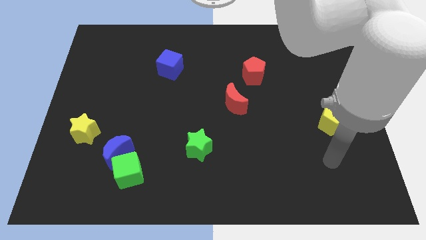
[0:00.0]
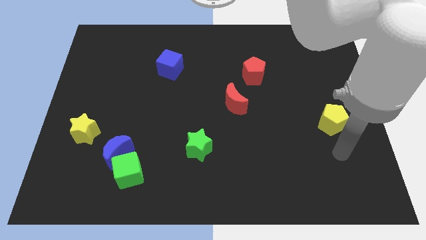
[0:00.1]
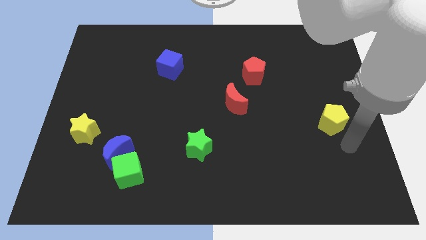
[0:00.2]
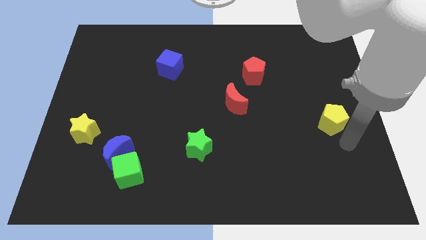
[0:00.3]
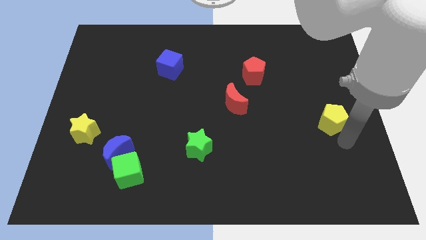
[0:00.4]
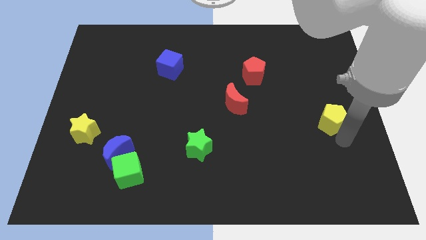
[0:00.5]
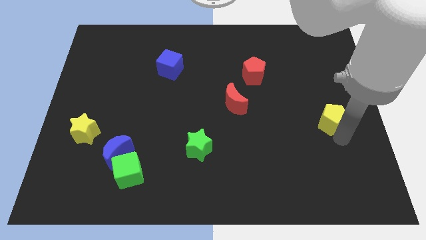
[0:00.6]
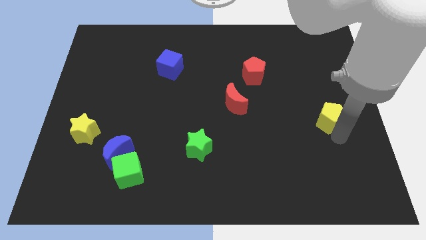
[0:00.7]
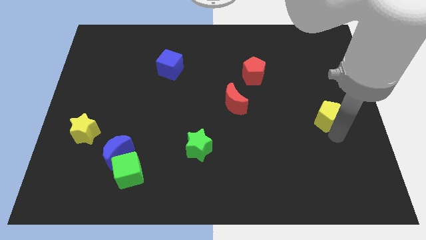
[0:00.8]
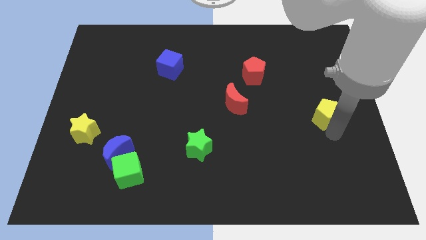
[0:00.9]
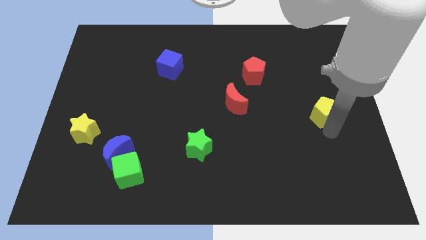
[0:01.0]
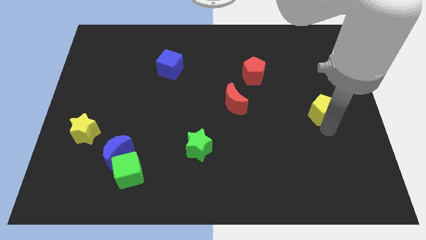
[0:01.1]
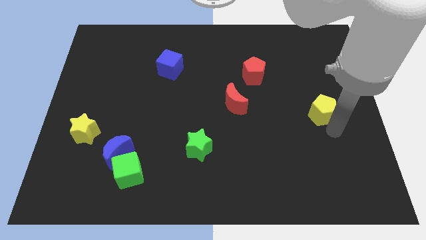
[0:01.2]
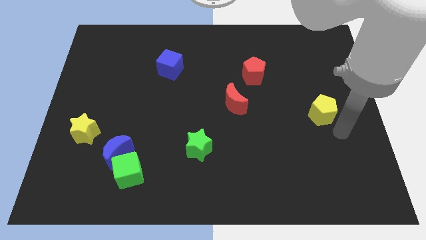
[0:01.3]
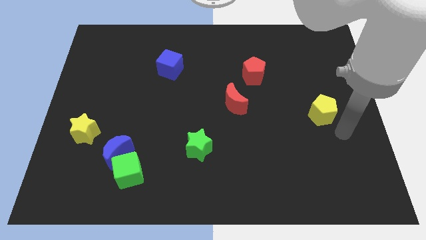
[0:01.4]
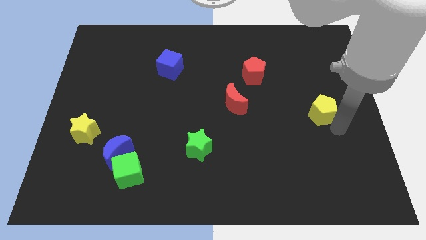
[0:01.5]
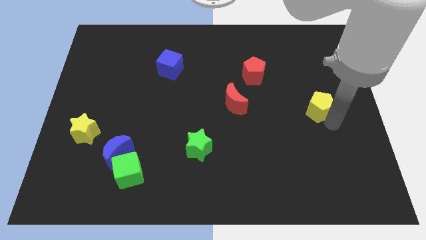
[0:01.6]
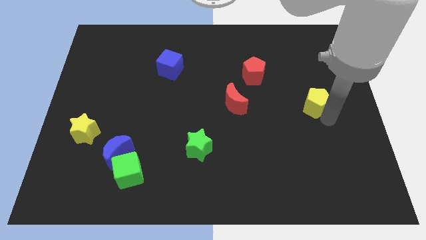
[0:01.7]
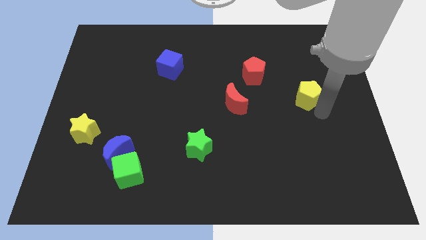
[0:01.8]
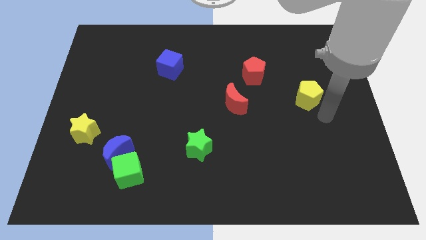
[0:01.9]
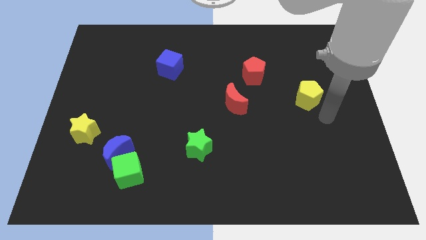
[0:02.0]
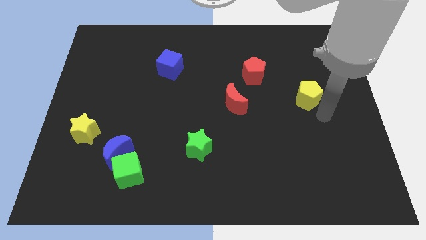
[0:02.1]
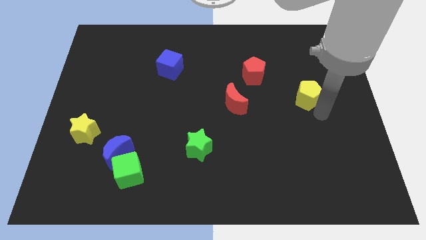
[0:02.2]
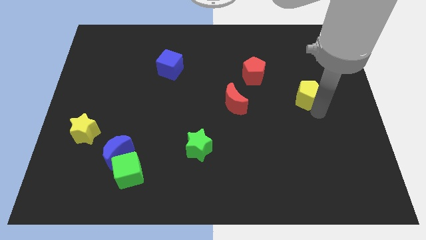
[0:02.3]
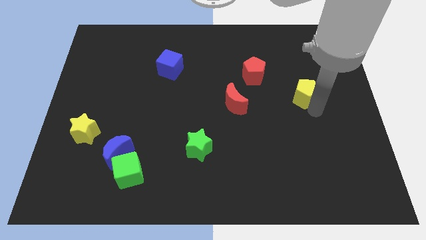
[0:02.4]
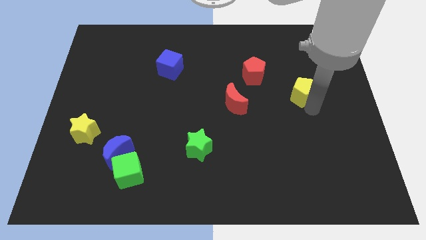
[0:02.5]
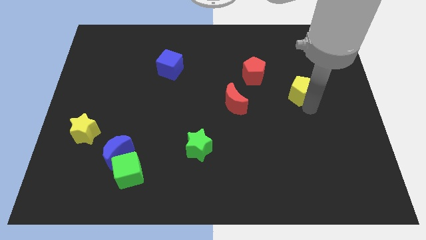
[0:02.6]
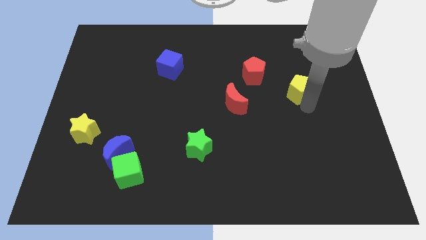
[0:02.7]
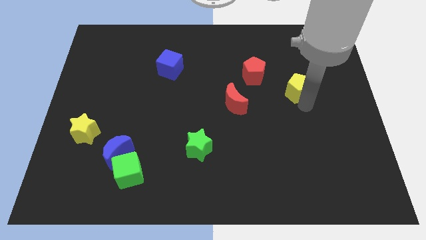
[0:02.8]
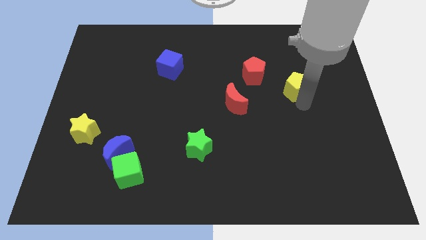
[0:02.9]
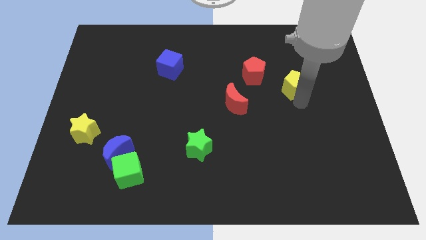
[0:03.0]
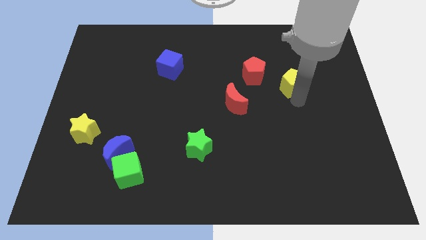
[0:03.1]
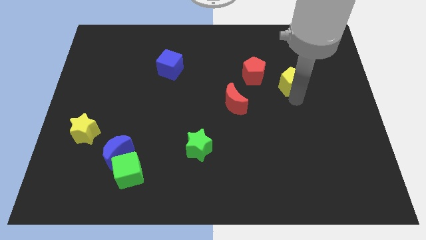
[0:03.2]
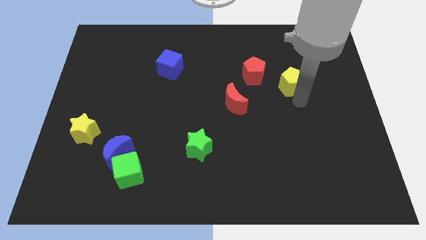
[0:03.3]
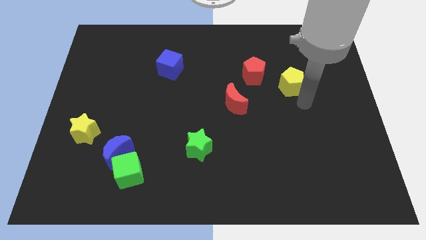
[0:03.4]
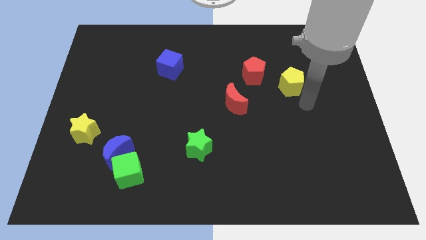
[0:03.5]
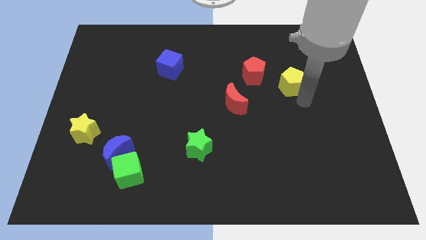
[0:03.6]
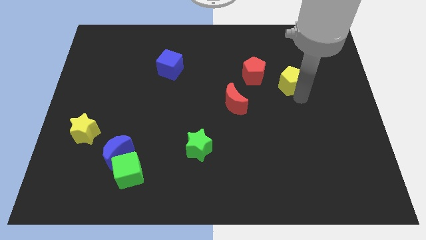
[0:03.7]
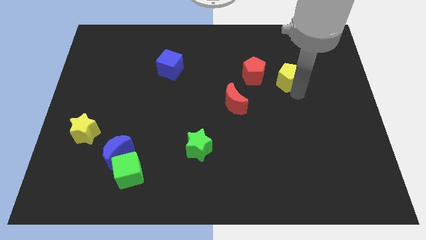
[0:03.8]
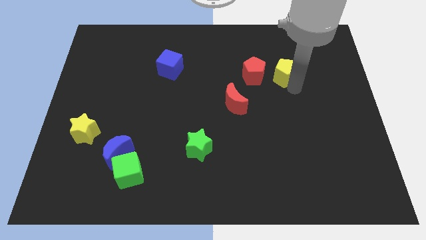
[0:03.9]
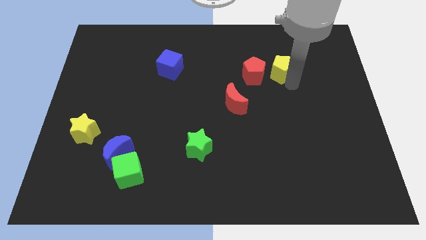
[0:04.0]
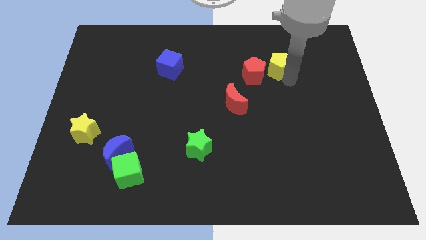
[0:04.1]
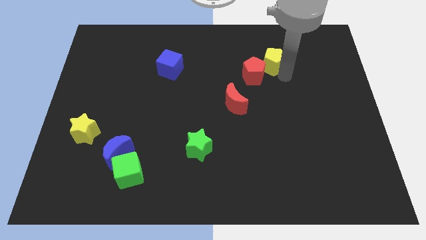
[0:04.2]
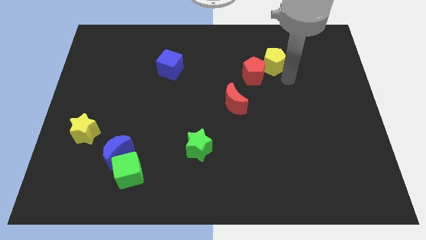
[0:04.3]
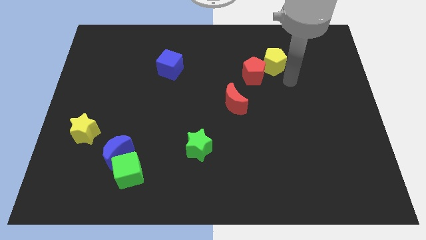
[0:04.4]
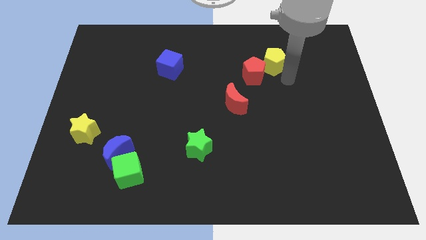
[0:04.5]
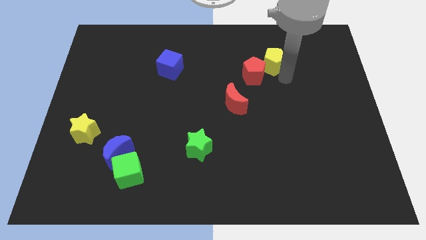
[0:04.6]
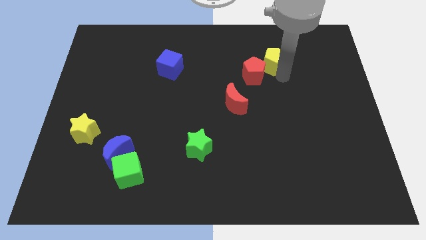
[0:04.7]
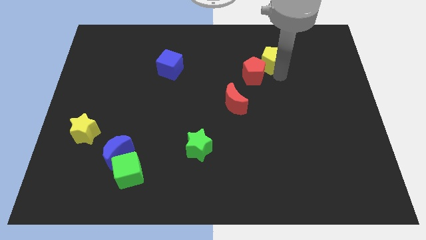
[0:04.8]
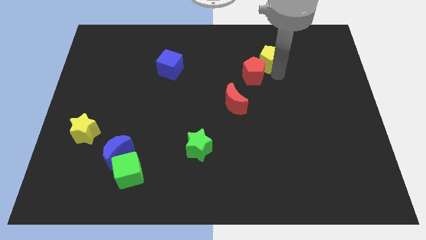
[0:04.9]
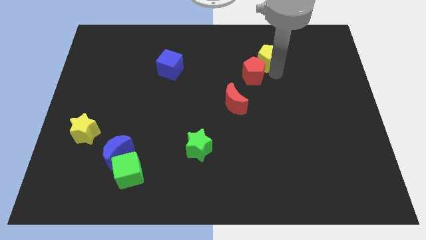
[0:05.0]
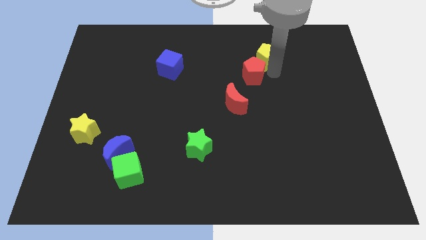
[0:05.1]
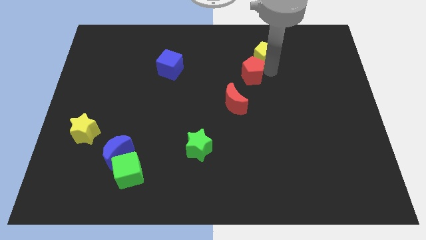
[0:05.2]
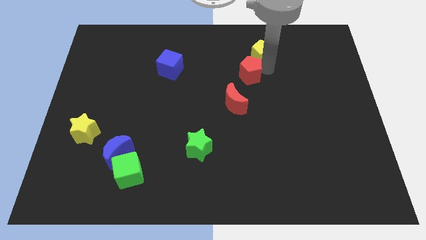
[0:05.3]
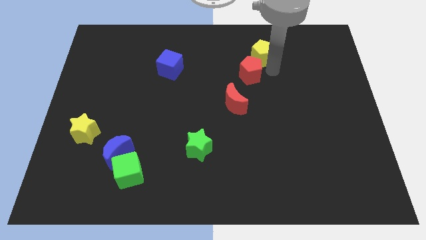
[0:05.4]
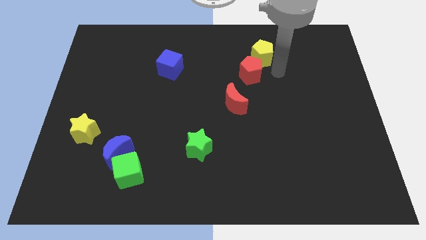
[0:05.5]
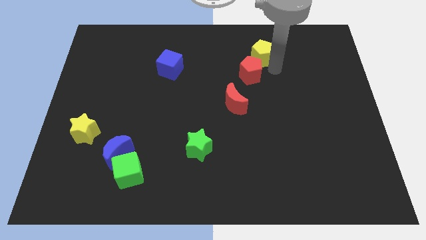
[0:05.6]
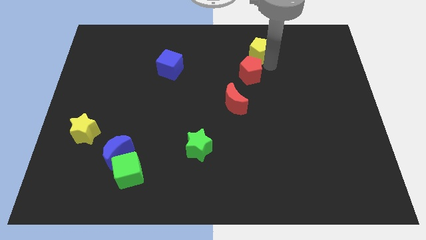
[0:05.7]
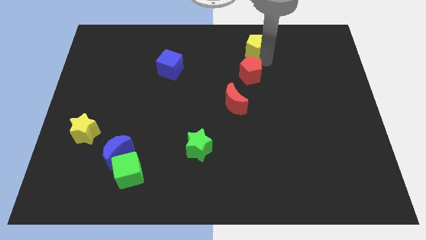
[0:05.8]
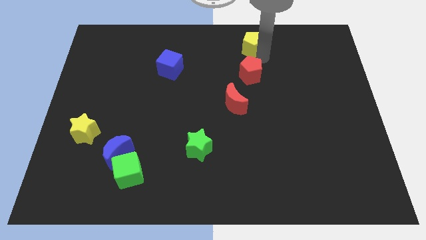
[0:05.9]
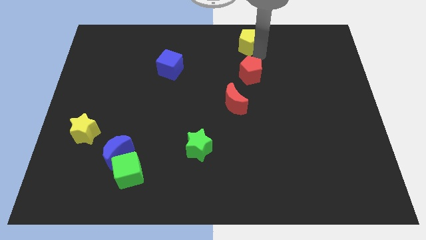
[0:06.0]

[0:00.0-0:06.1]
push the yellow pentagon to the top side
